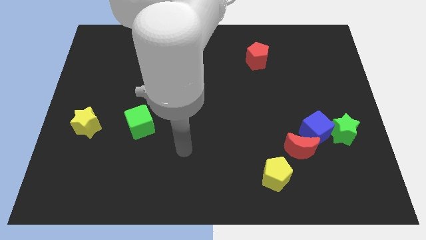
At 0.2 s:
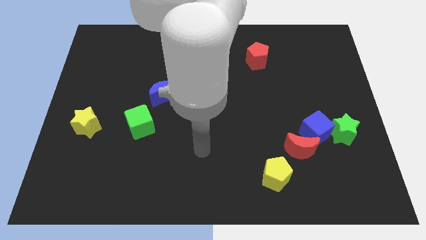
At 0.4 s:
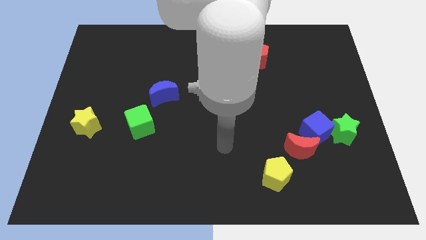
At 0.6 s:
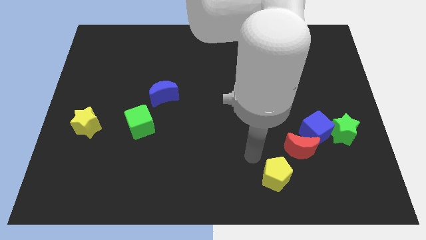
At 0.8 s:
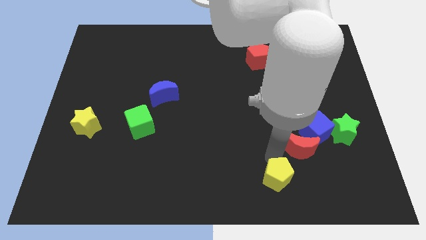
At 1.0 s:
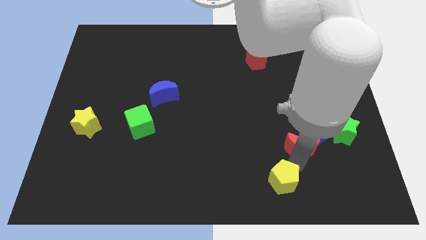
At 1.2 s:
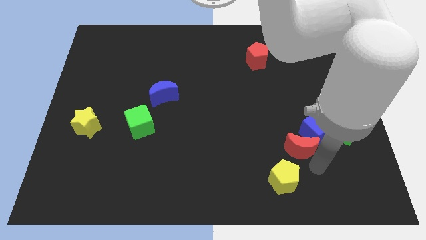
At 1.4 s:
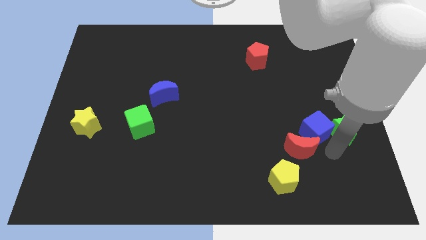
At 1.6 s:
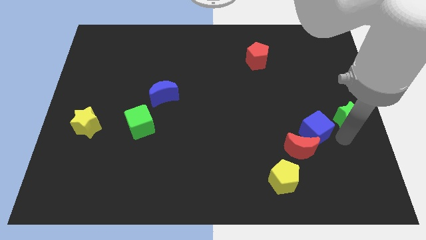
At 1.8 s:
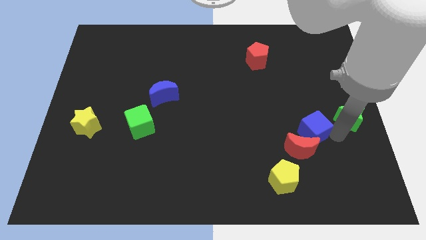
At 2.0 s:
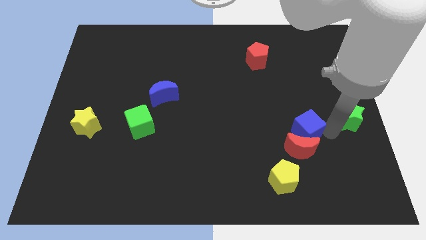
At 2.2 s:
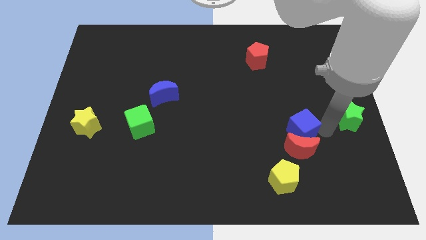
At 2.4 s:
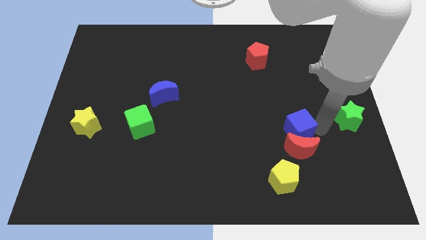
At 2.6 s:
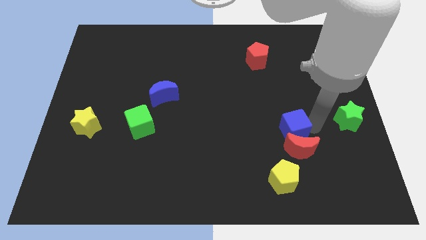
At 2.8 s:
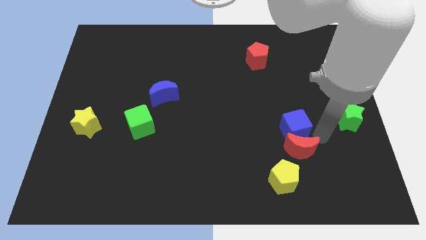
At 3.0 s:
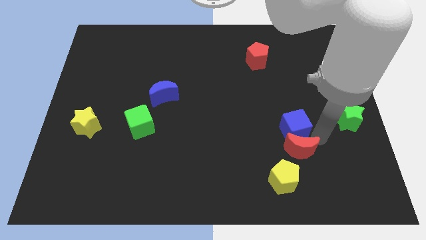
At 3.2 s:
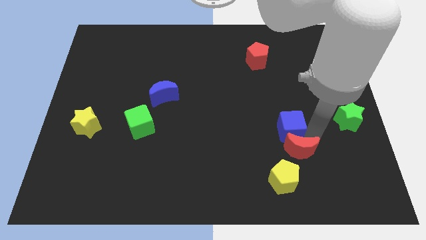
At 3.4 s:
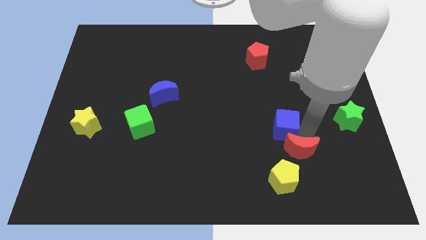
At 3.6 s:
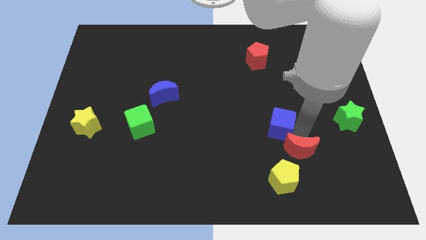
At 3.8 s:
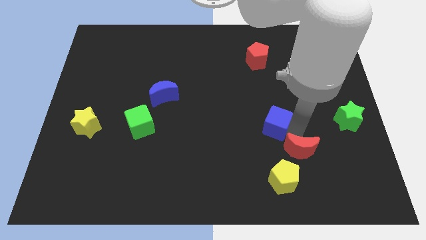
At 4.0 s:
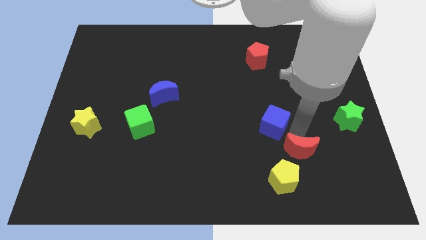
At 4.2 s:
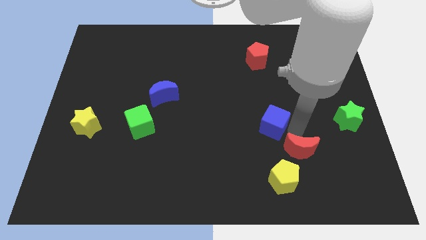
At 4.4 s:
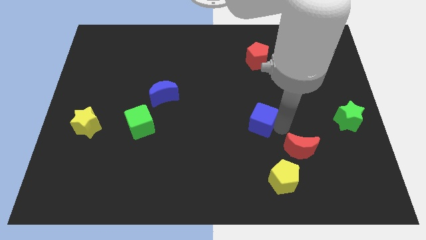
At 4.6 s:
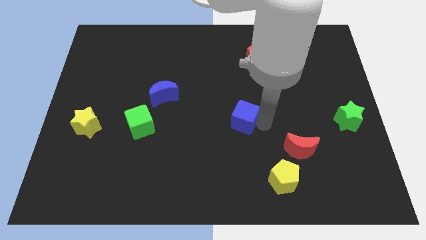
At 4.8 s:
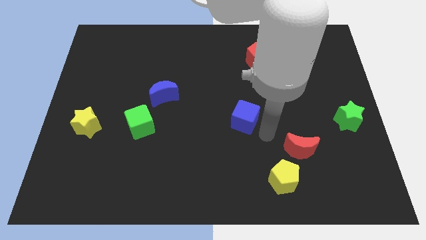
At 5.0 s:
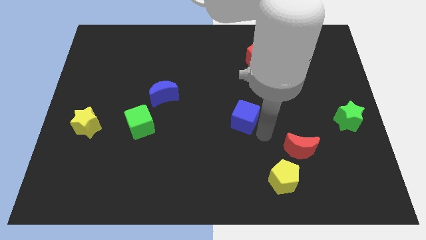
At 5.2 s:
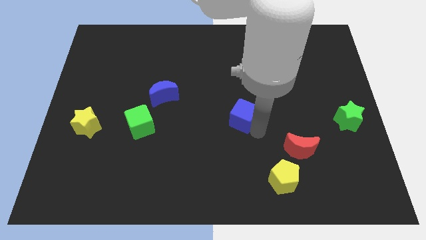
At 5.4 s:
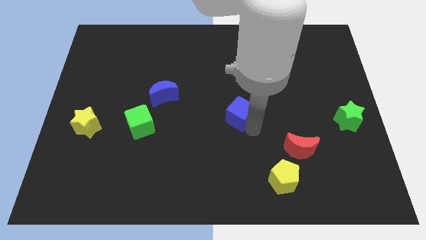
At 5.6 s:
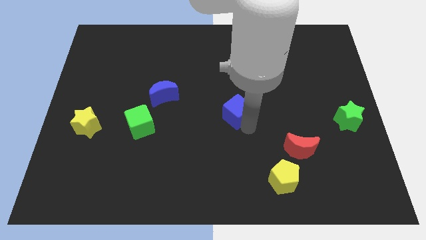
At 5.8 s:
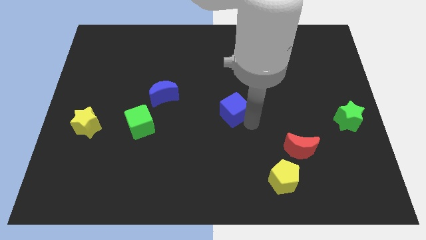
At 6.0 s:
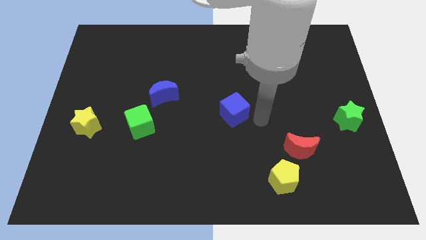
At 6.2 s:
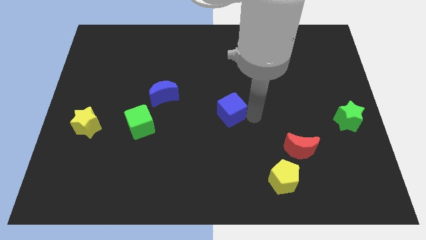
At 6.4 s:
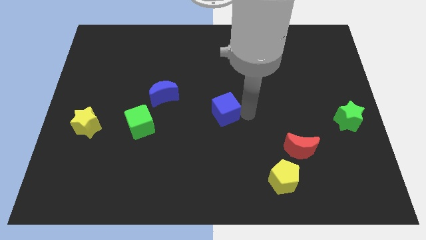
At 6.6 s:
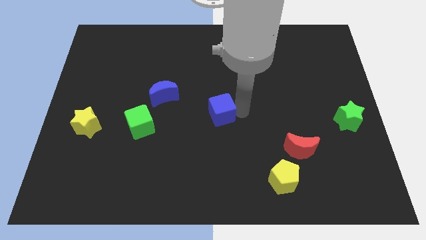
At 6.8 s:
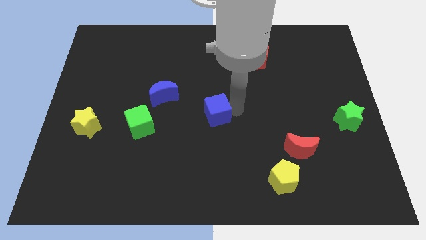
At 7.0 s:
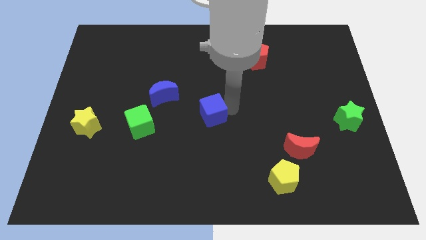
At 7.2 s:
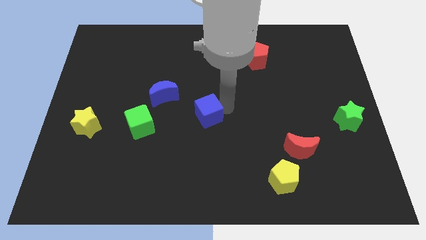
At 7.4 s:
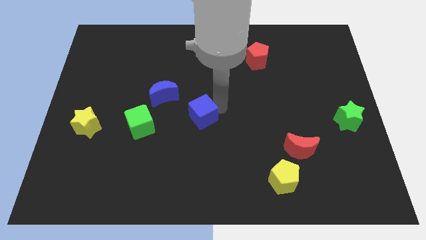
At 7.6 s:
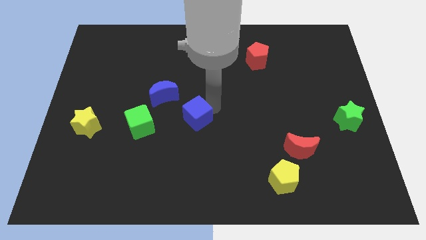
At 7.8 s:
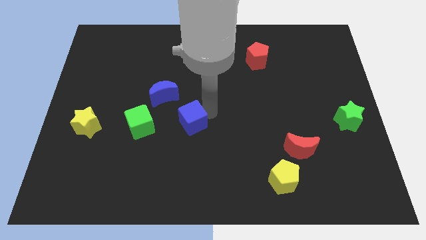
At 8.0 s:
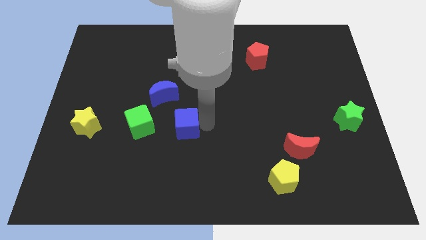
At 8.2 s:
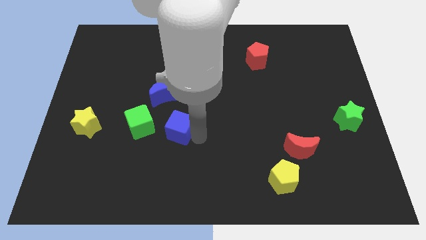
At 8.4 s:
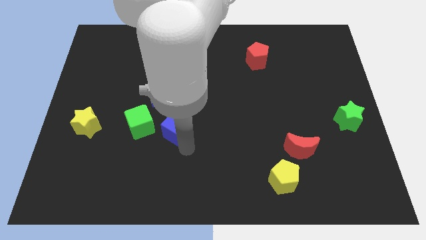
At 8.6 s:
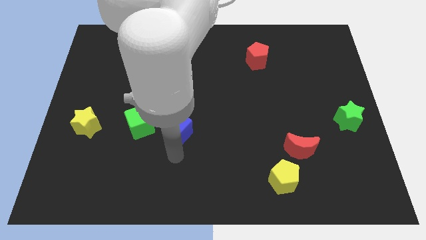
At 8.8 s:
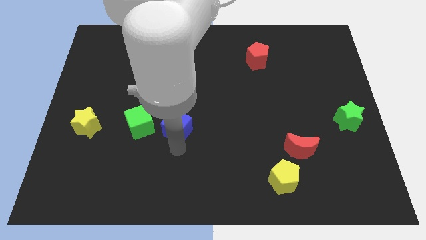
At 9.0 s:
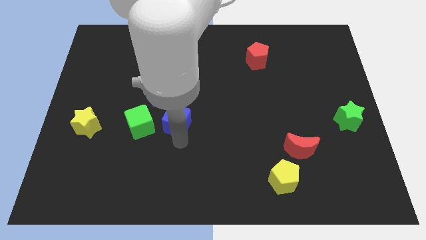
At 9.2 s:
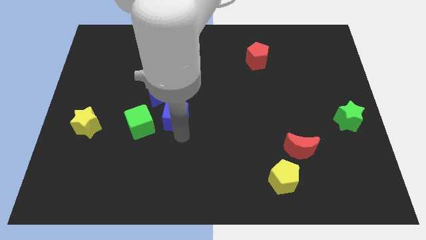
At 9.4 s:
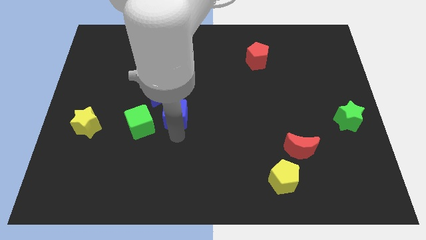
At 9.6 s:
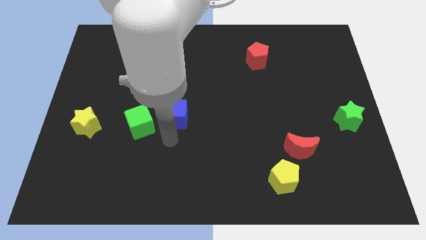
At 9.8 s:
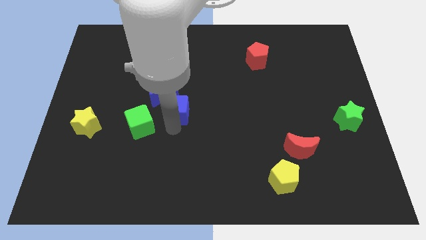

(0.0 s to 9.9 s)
slide the blue cube towards the blue moon

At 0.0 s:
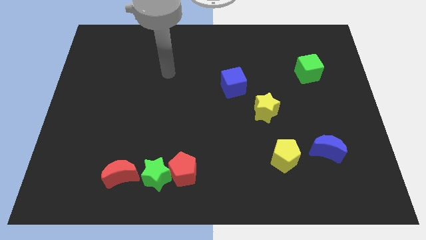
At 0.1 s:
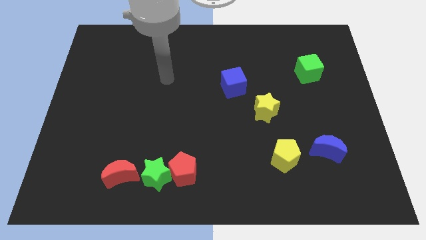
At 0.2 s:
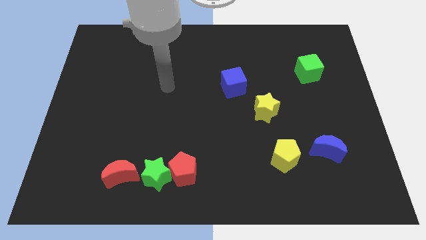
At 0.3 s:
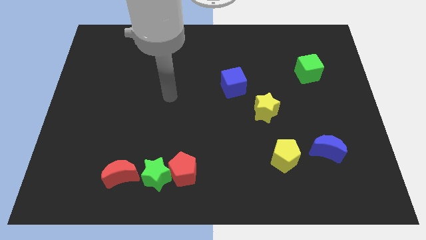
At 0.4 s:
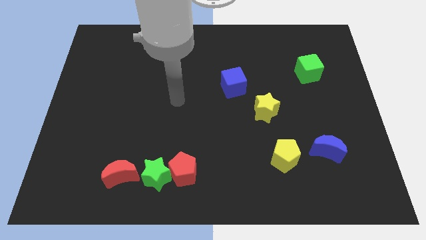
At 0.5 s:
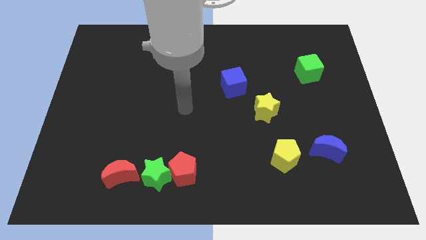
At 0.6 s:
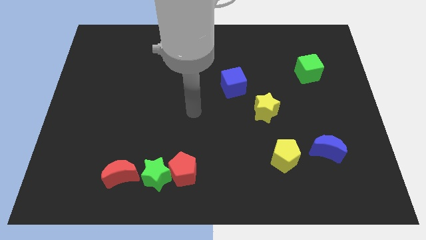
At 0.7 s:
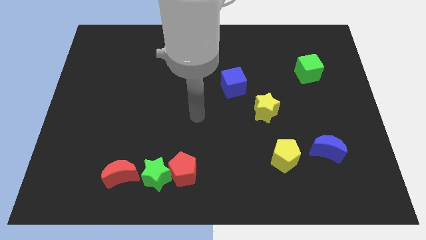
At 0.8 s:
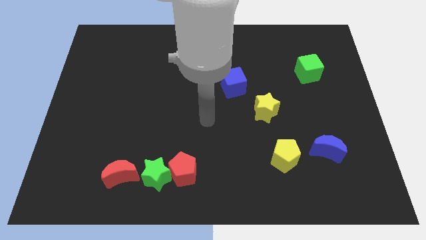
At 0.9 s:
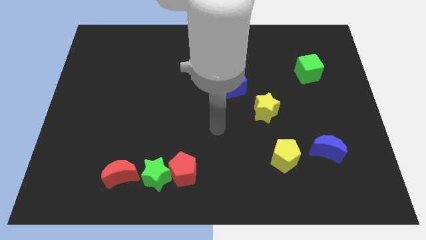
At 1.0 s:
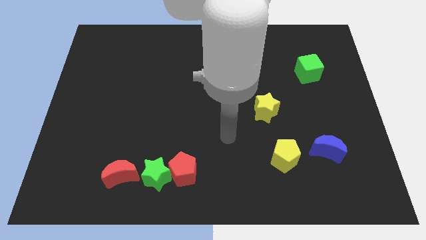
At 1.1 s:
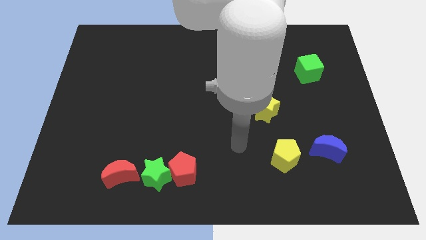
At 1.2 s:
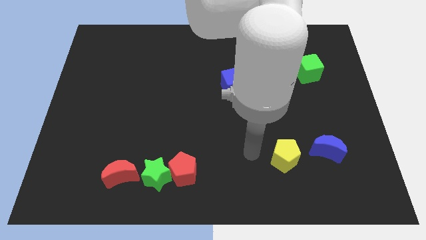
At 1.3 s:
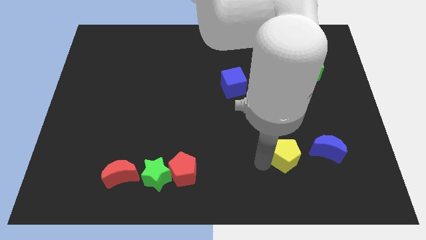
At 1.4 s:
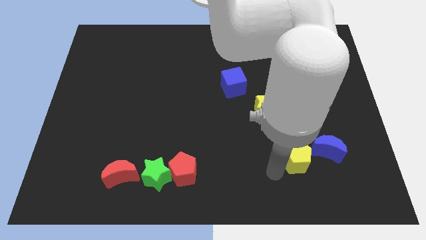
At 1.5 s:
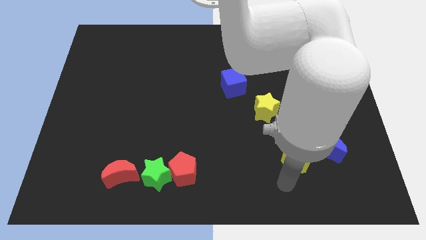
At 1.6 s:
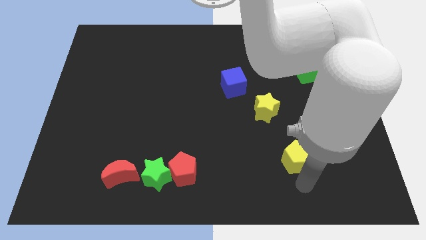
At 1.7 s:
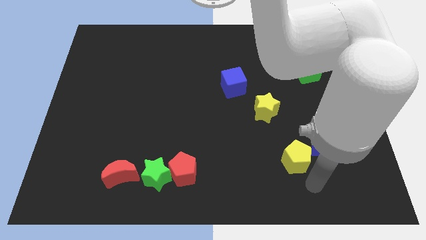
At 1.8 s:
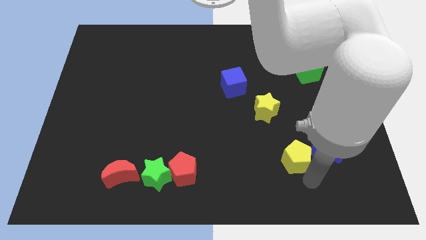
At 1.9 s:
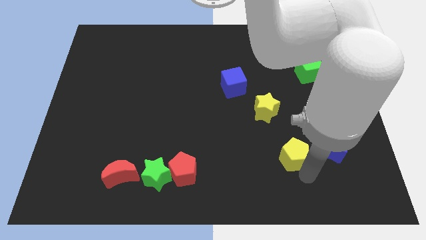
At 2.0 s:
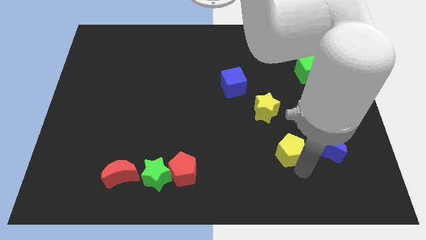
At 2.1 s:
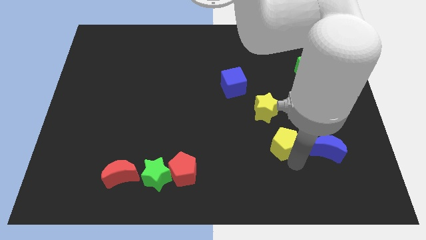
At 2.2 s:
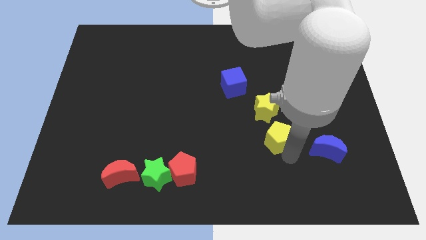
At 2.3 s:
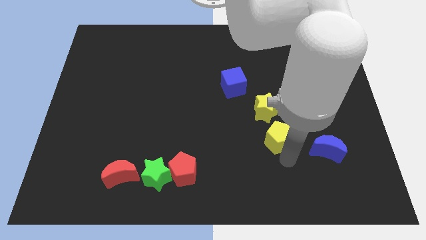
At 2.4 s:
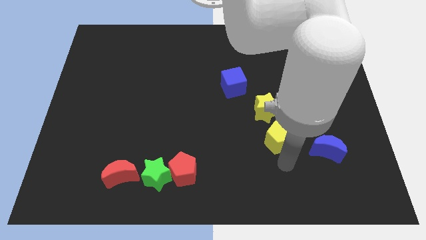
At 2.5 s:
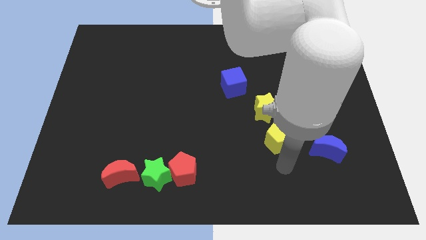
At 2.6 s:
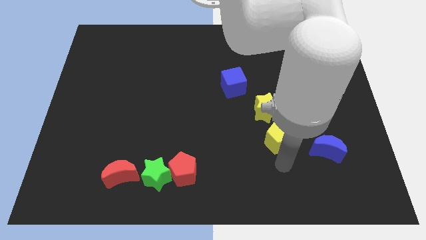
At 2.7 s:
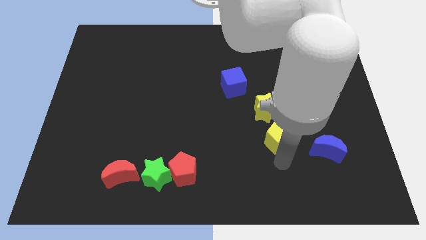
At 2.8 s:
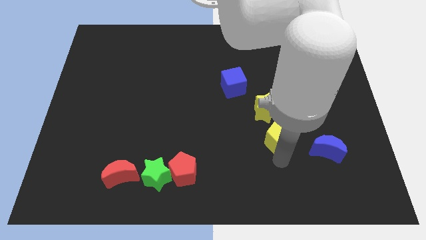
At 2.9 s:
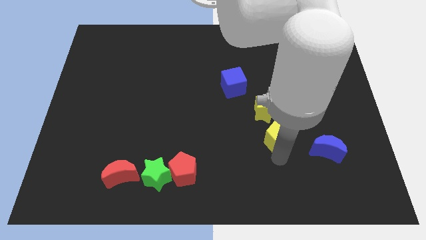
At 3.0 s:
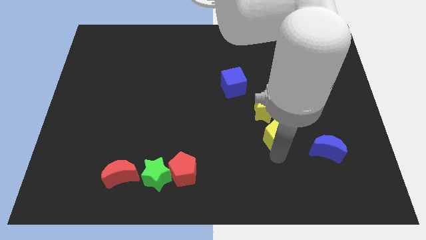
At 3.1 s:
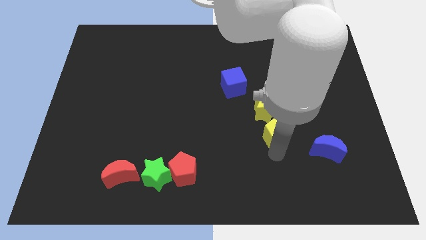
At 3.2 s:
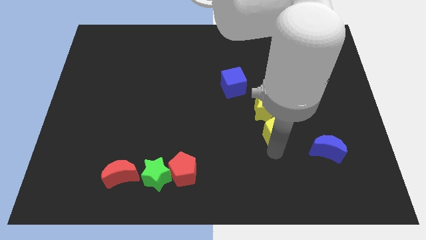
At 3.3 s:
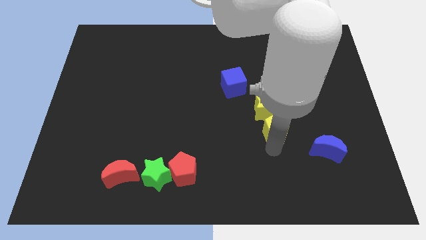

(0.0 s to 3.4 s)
put the yellow pentagon to the yellow star
